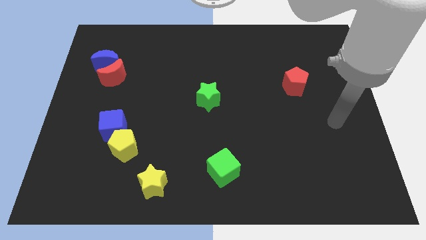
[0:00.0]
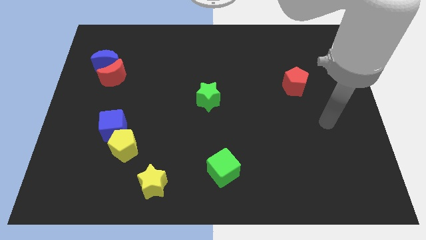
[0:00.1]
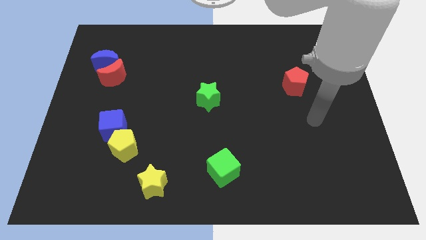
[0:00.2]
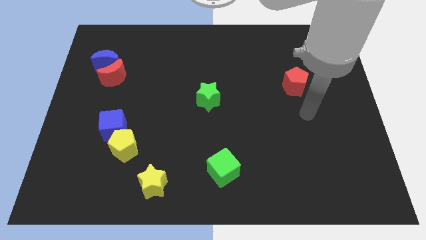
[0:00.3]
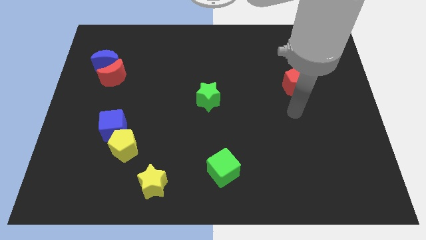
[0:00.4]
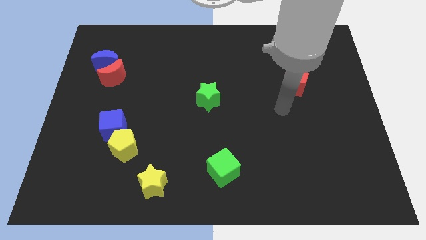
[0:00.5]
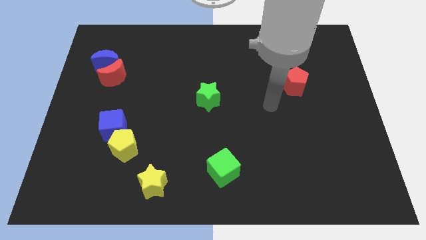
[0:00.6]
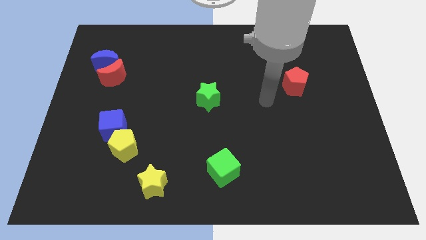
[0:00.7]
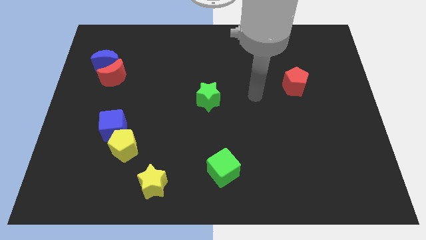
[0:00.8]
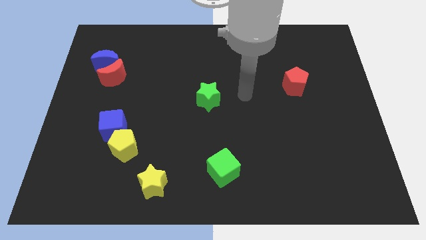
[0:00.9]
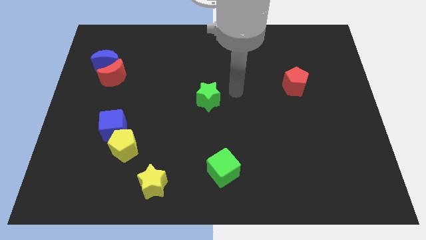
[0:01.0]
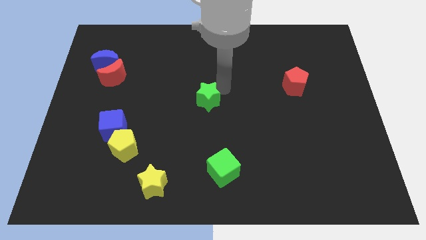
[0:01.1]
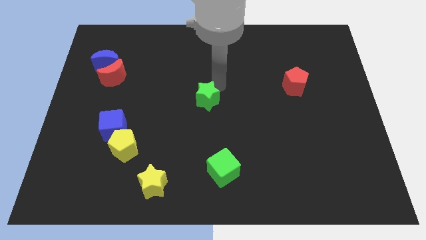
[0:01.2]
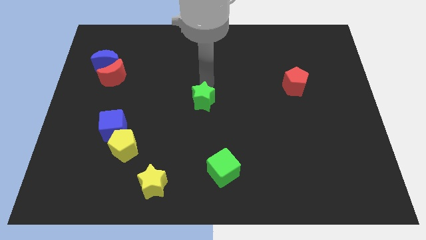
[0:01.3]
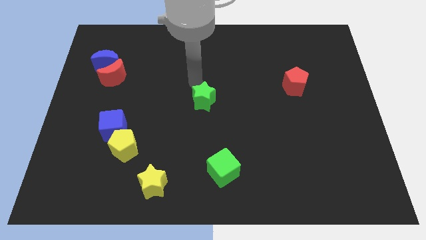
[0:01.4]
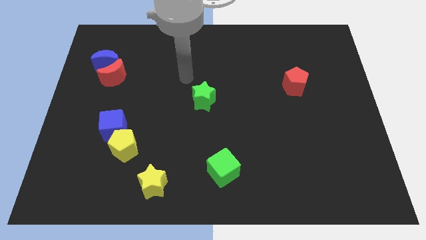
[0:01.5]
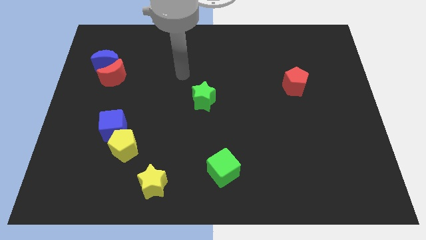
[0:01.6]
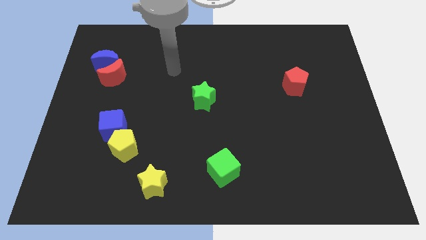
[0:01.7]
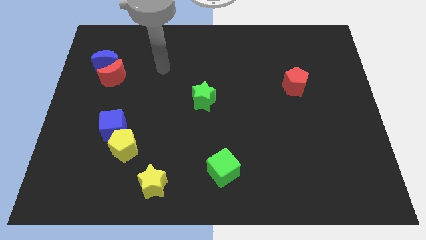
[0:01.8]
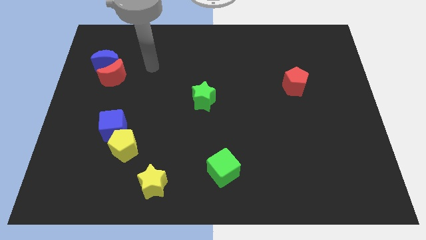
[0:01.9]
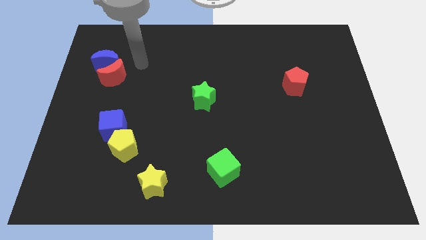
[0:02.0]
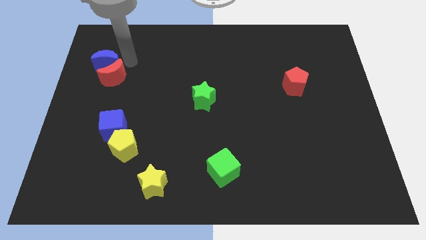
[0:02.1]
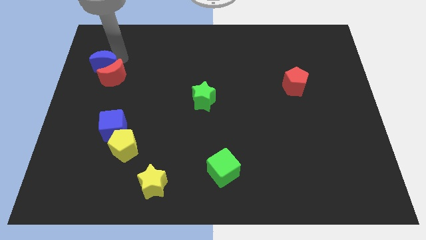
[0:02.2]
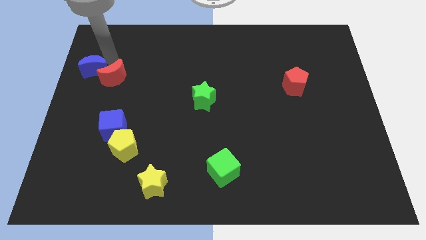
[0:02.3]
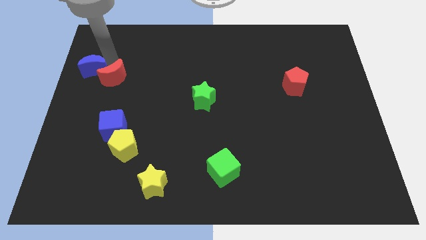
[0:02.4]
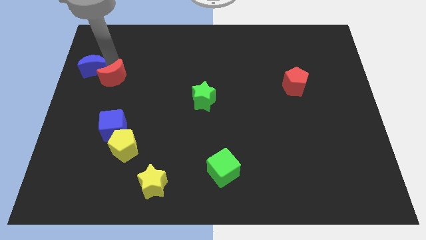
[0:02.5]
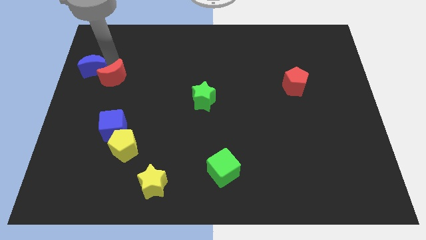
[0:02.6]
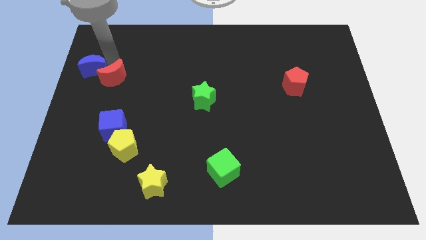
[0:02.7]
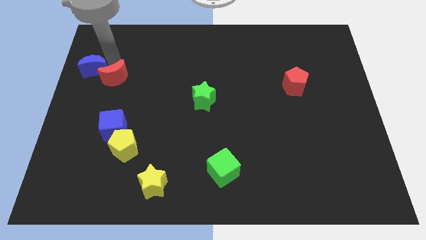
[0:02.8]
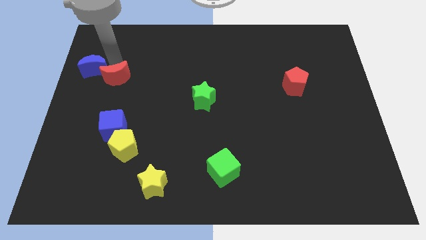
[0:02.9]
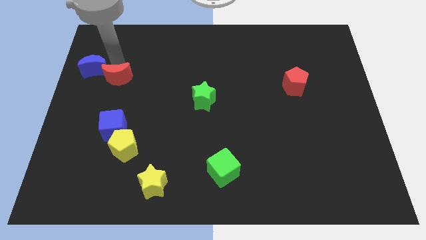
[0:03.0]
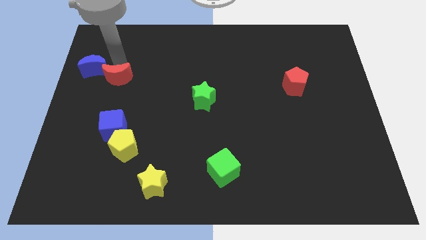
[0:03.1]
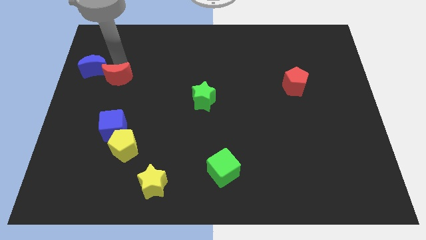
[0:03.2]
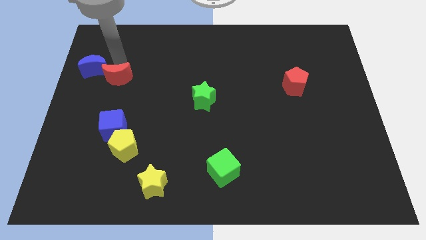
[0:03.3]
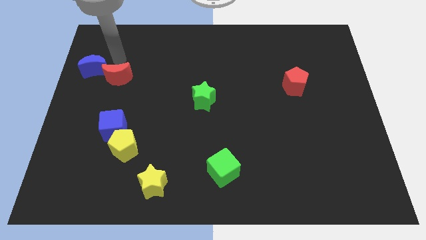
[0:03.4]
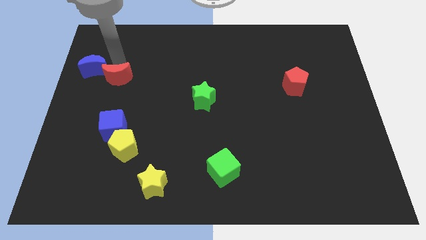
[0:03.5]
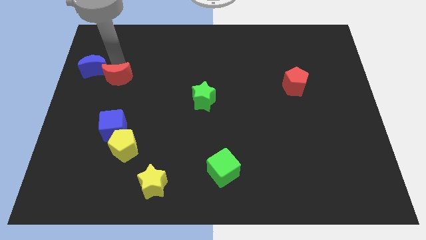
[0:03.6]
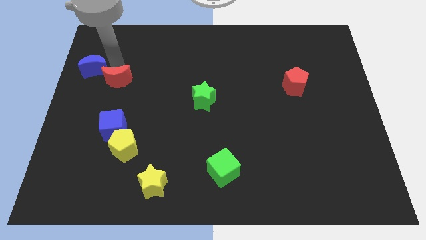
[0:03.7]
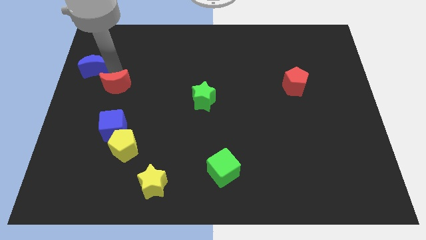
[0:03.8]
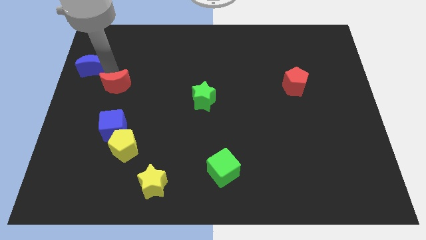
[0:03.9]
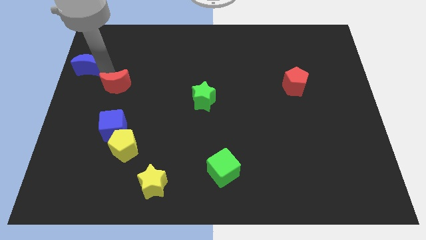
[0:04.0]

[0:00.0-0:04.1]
move the red moon away from the blue moon

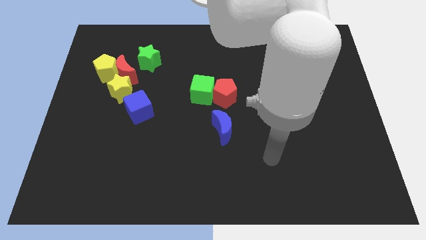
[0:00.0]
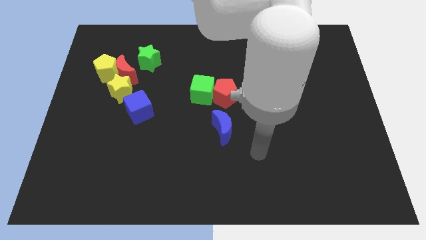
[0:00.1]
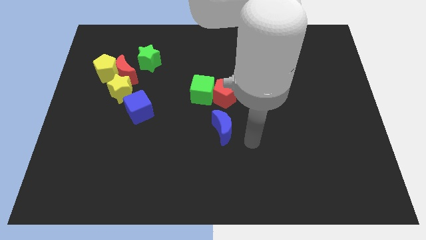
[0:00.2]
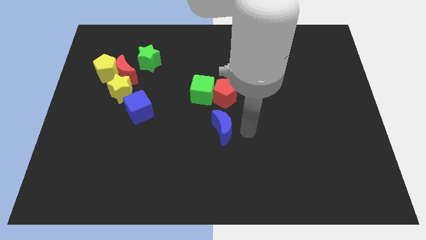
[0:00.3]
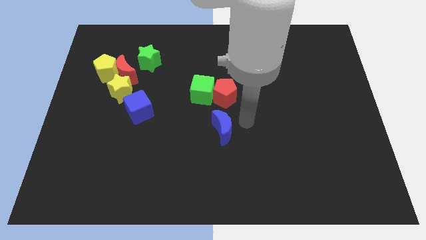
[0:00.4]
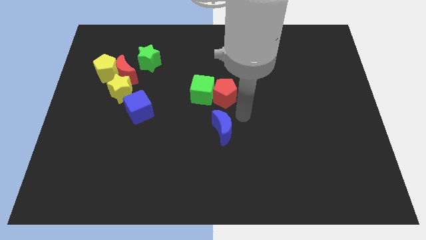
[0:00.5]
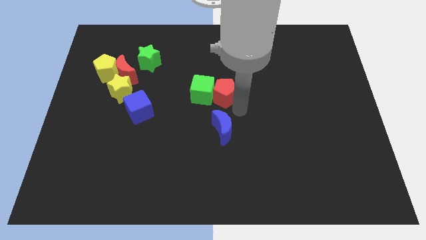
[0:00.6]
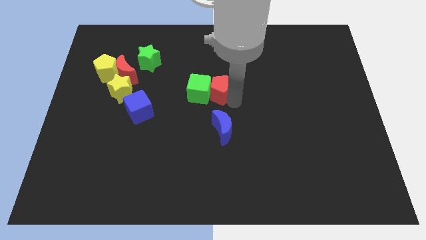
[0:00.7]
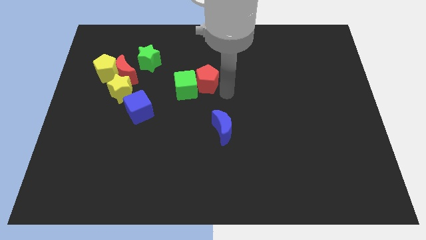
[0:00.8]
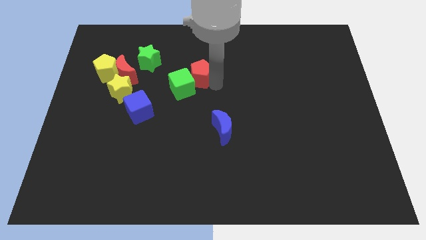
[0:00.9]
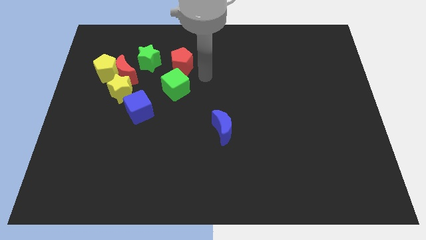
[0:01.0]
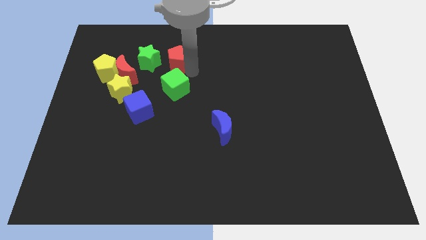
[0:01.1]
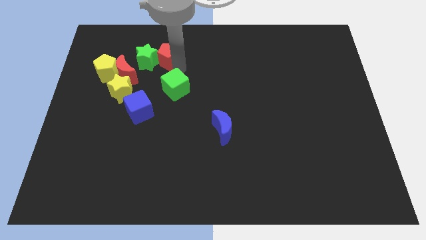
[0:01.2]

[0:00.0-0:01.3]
separate the green cube from the red pentagon

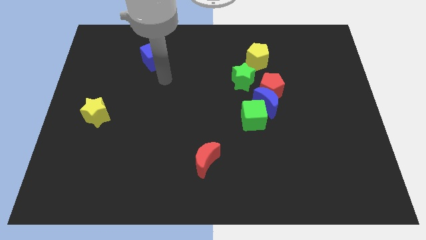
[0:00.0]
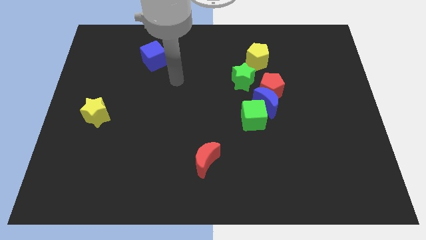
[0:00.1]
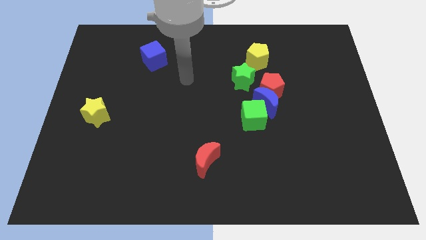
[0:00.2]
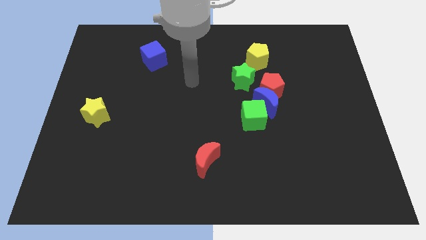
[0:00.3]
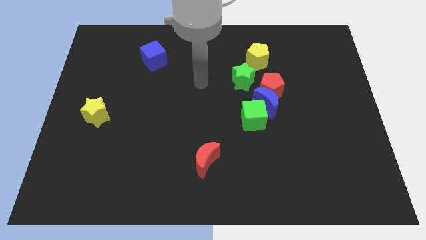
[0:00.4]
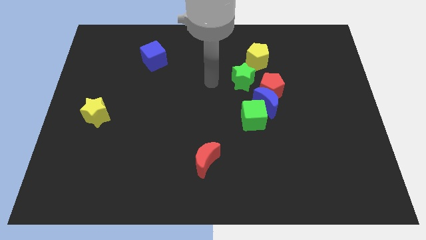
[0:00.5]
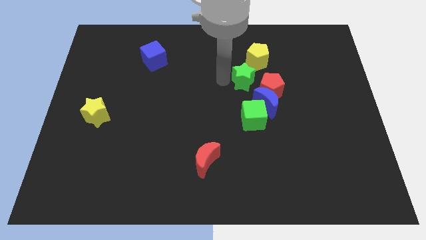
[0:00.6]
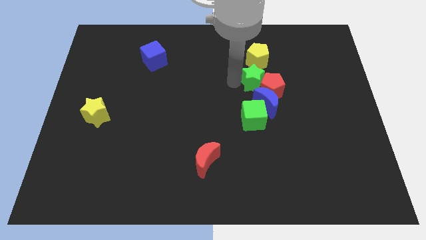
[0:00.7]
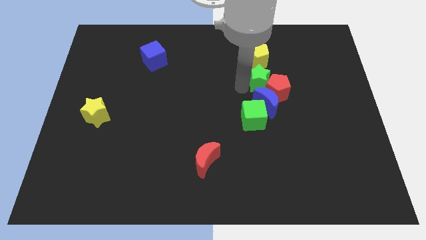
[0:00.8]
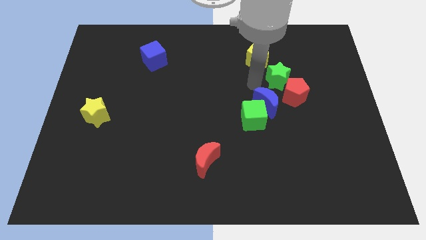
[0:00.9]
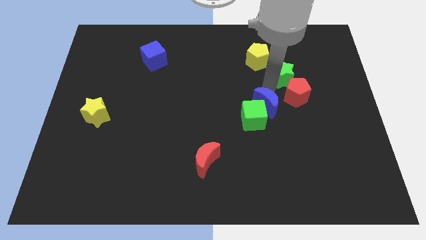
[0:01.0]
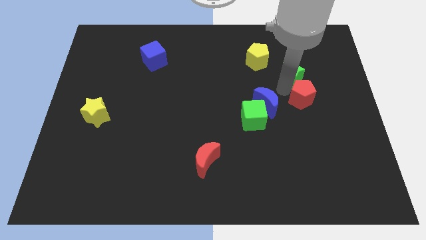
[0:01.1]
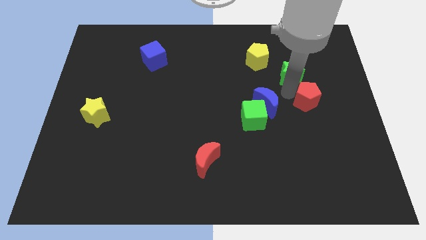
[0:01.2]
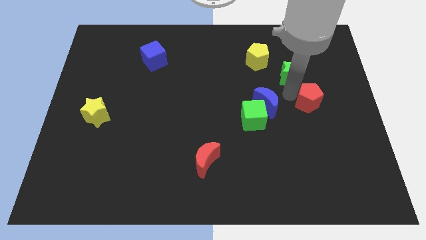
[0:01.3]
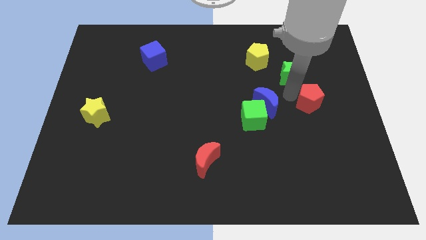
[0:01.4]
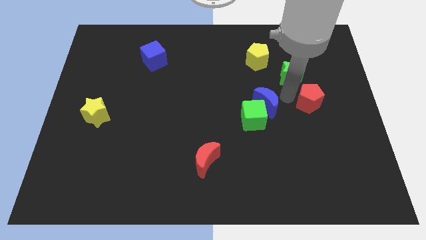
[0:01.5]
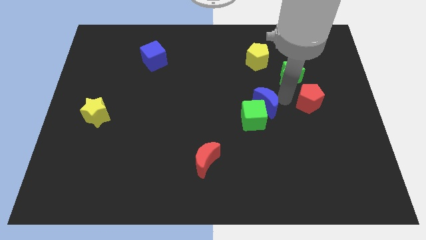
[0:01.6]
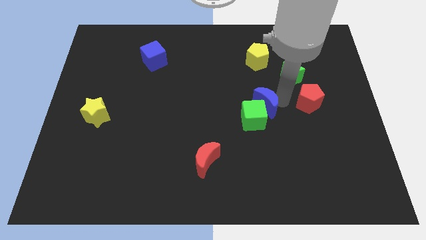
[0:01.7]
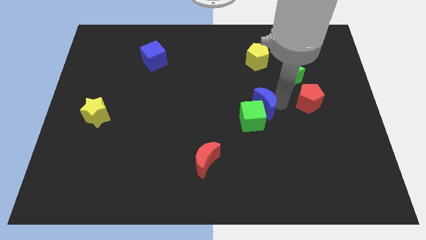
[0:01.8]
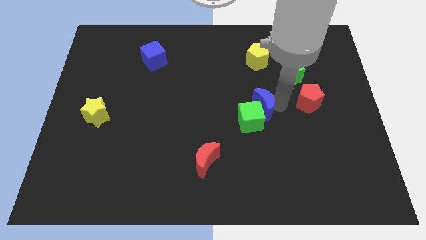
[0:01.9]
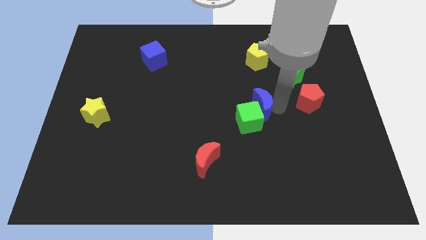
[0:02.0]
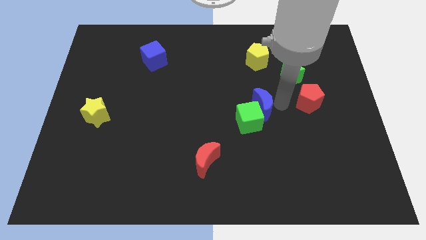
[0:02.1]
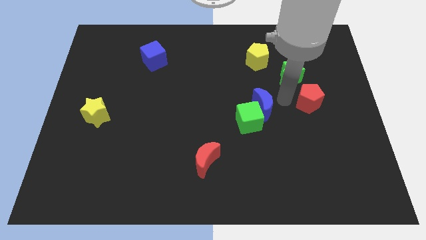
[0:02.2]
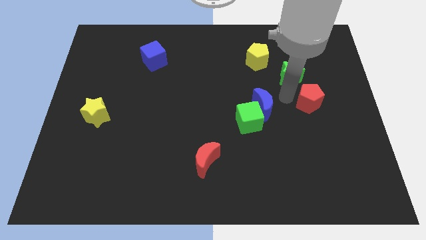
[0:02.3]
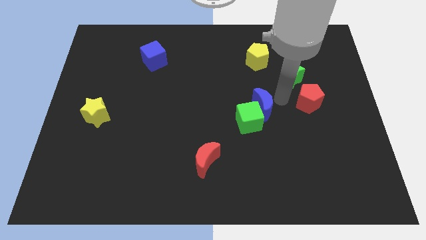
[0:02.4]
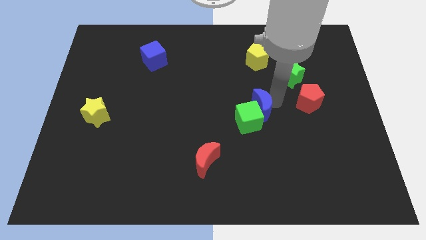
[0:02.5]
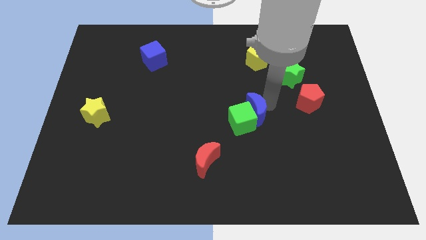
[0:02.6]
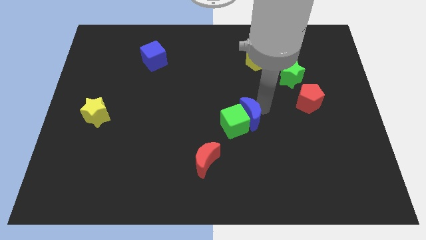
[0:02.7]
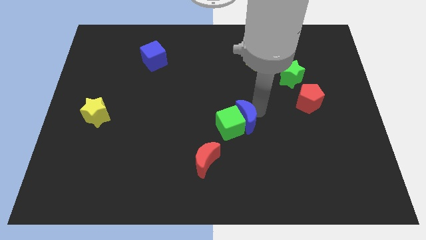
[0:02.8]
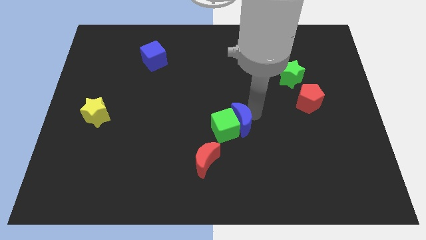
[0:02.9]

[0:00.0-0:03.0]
separate the blue moon from the group

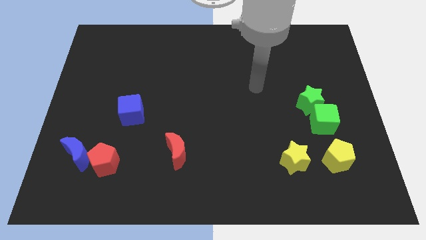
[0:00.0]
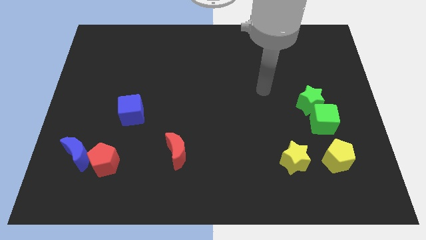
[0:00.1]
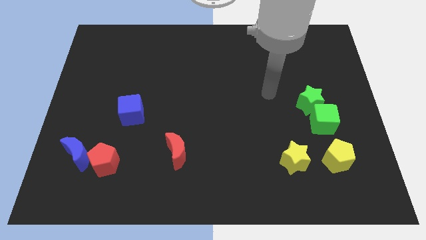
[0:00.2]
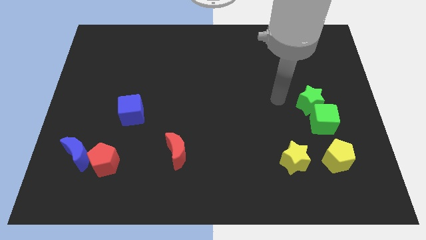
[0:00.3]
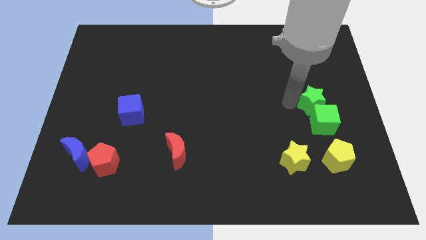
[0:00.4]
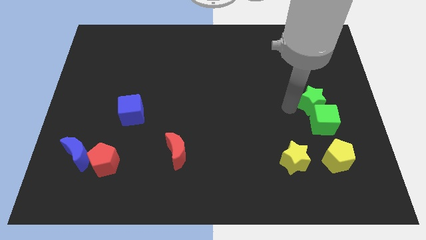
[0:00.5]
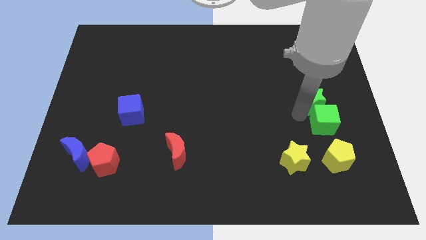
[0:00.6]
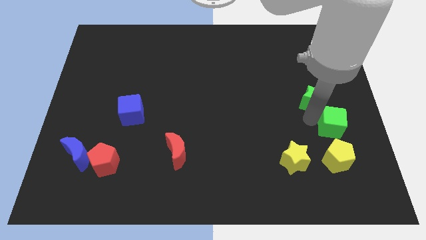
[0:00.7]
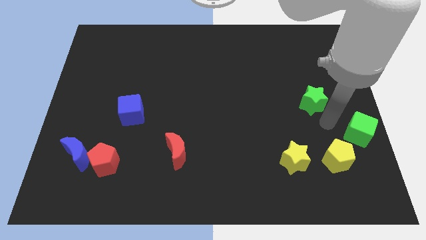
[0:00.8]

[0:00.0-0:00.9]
pull the green star apart from the green cube
